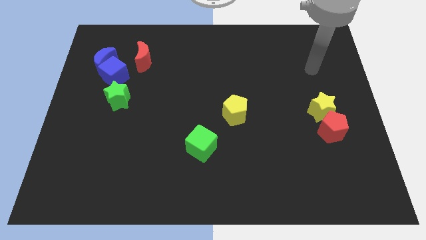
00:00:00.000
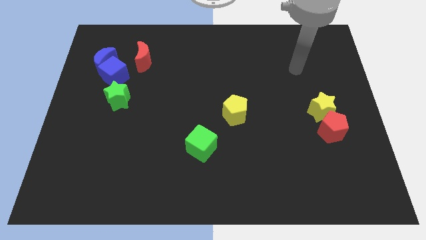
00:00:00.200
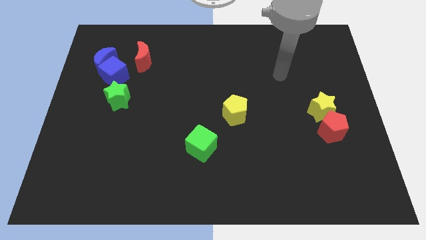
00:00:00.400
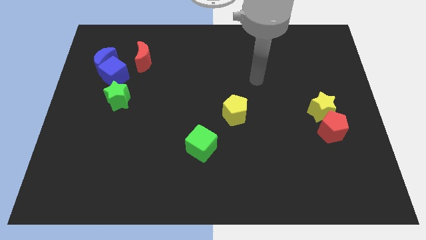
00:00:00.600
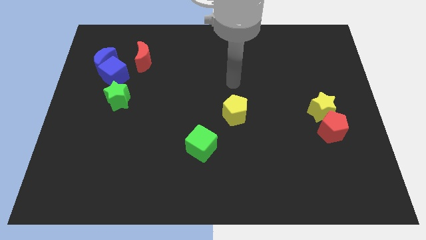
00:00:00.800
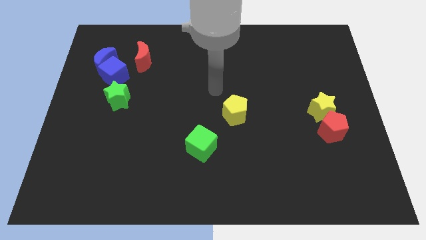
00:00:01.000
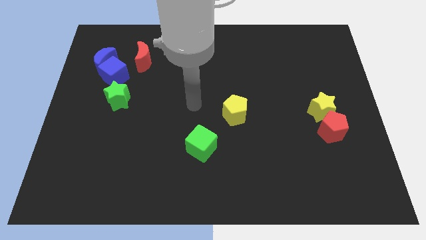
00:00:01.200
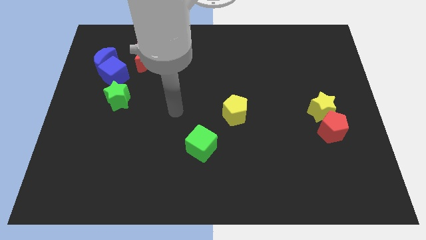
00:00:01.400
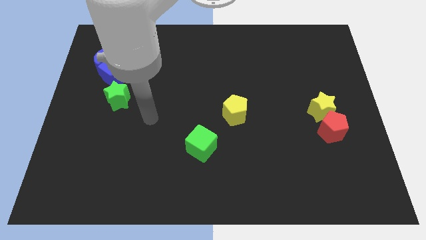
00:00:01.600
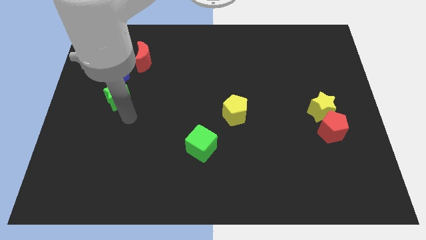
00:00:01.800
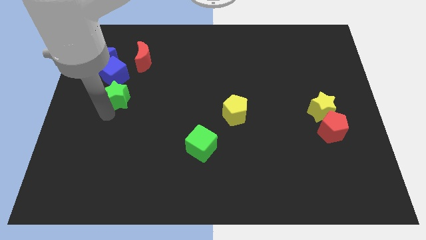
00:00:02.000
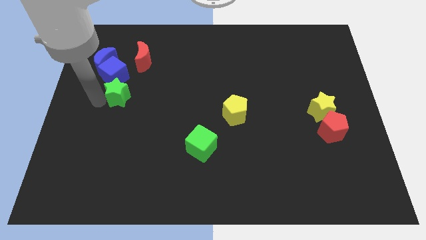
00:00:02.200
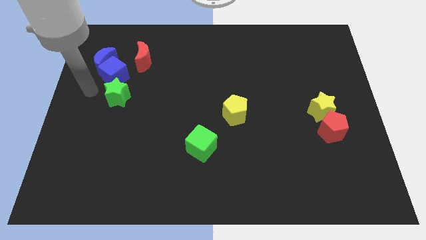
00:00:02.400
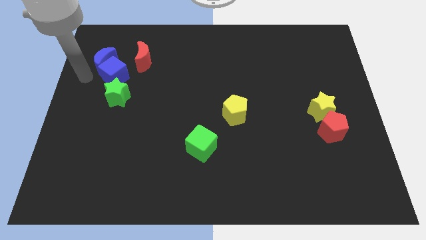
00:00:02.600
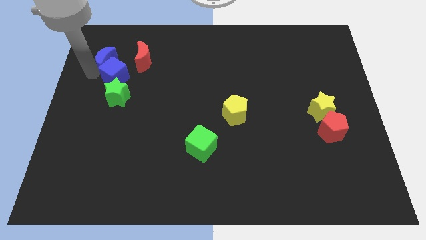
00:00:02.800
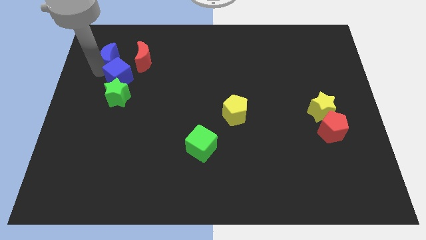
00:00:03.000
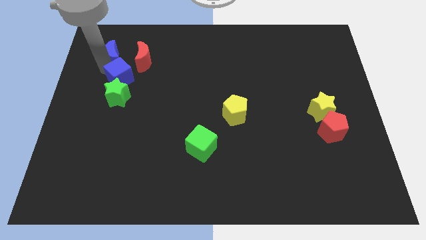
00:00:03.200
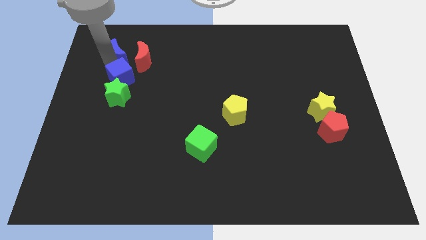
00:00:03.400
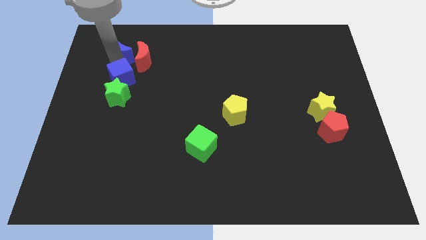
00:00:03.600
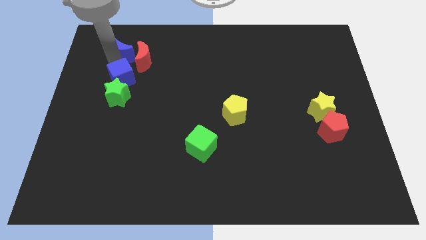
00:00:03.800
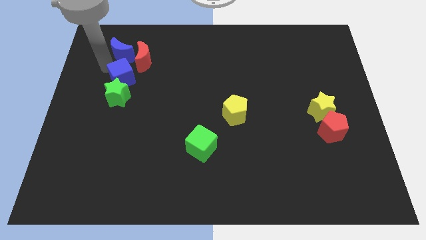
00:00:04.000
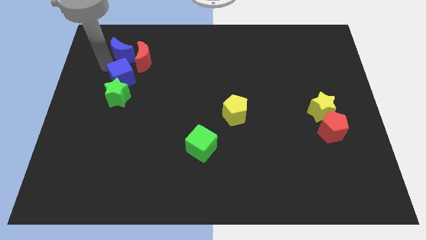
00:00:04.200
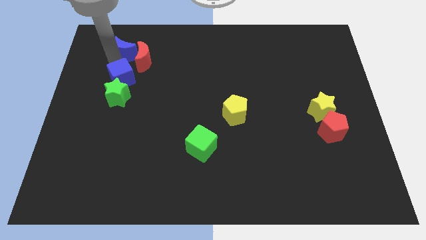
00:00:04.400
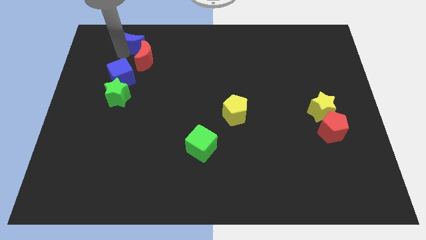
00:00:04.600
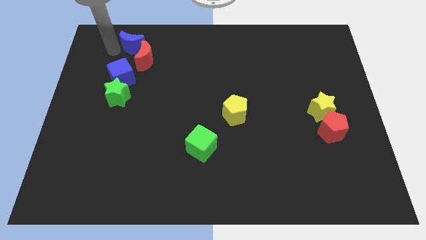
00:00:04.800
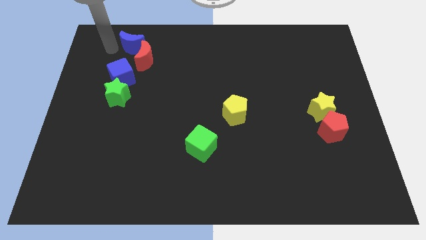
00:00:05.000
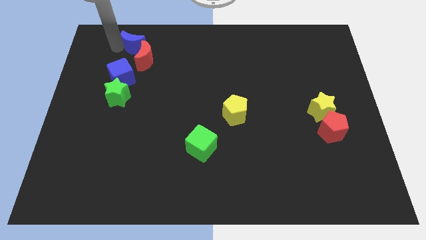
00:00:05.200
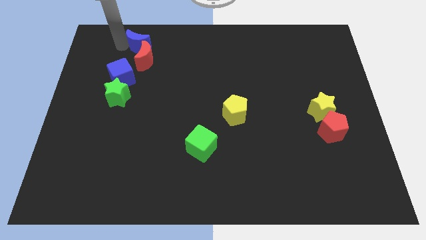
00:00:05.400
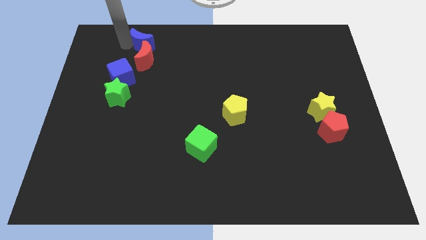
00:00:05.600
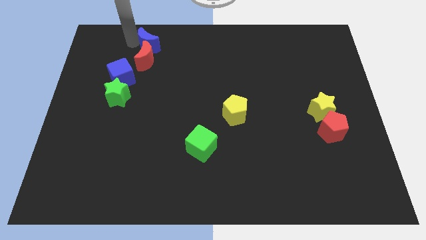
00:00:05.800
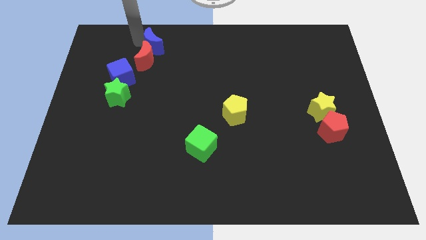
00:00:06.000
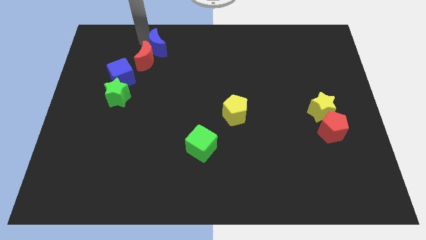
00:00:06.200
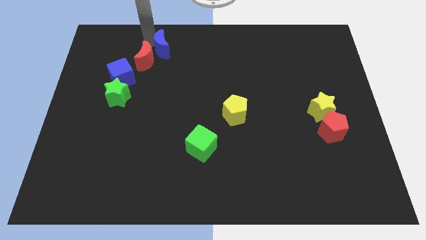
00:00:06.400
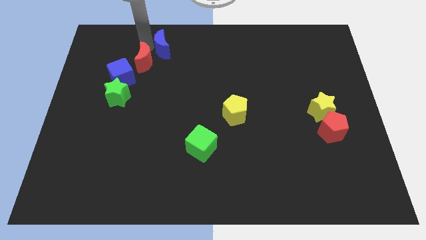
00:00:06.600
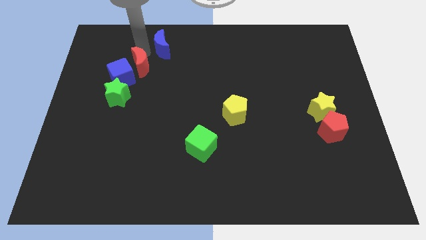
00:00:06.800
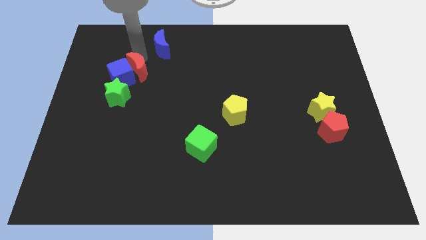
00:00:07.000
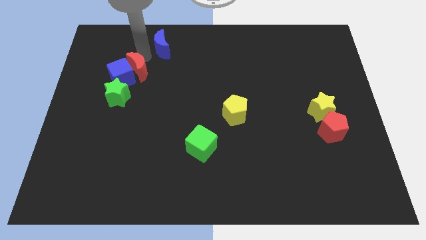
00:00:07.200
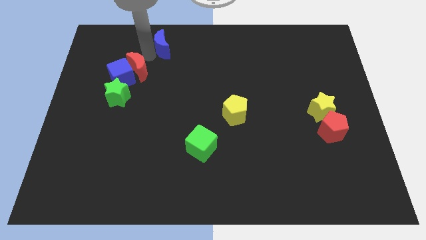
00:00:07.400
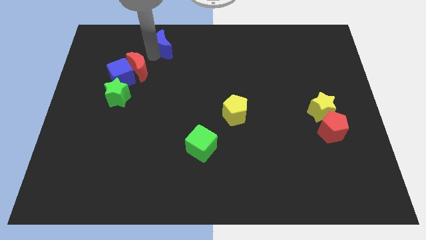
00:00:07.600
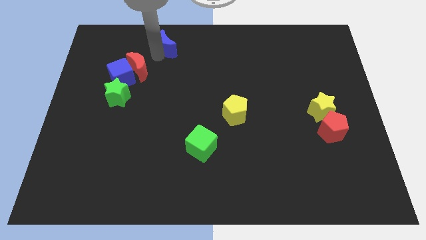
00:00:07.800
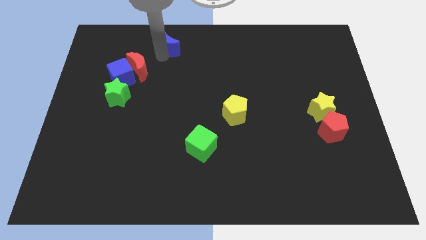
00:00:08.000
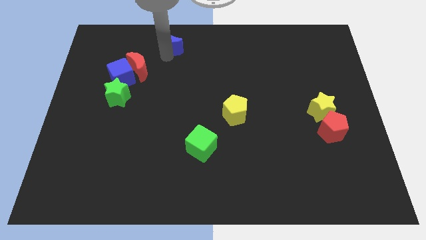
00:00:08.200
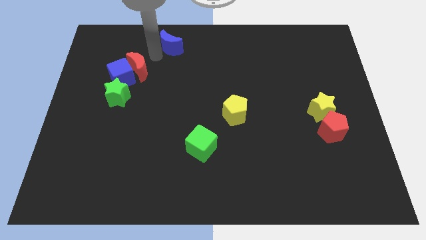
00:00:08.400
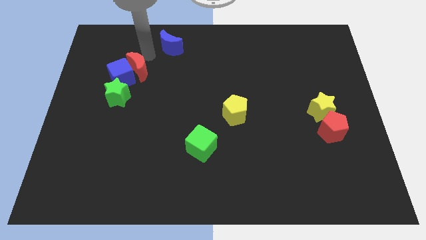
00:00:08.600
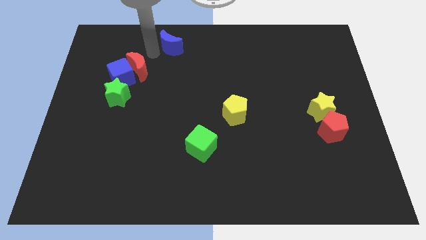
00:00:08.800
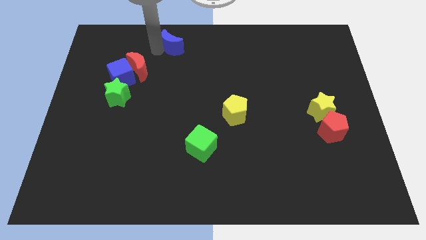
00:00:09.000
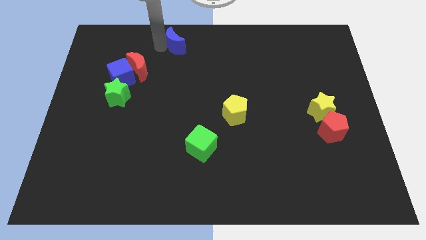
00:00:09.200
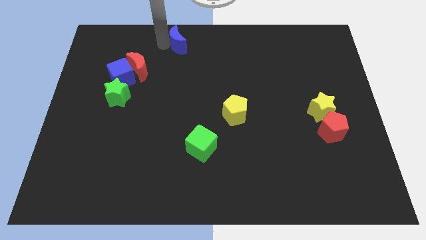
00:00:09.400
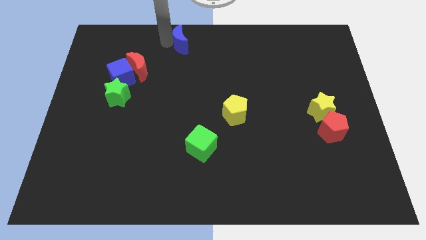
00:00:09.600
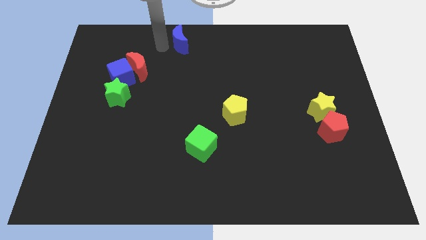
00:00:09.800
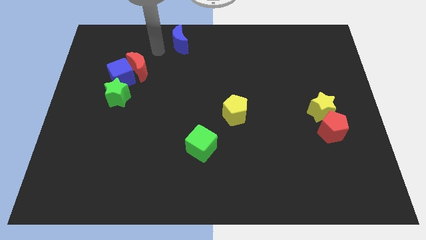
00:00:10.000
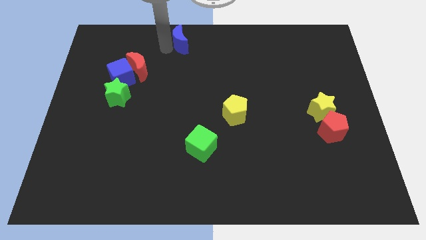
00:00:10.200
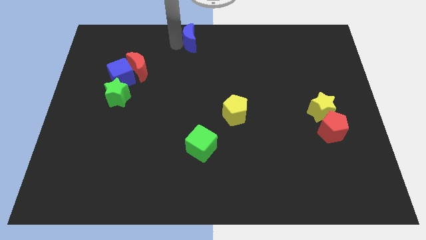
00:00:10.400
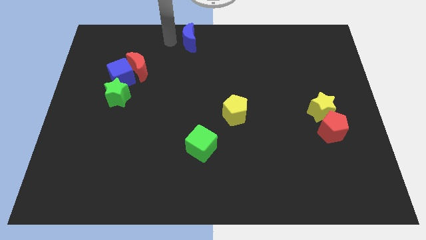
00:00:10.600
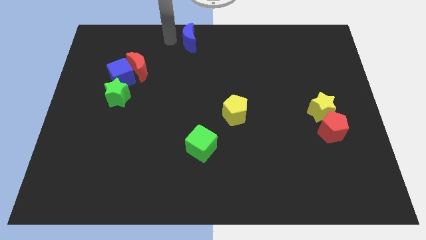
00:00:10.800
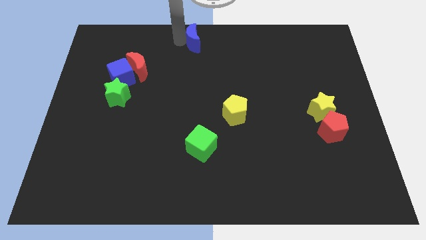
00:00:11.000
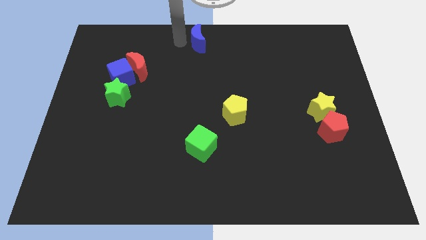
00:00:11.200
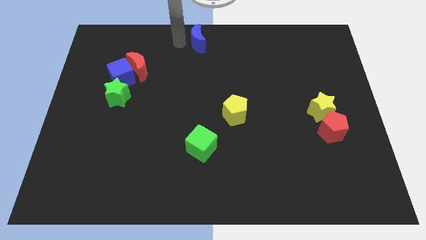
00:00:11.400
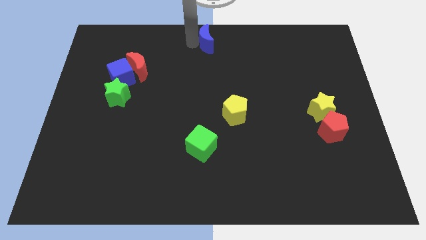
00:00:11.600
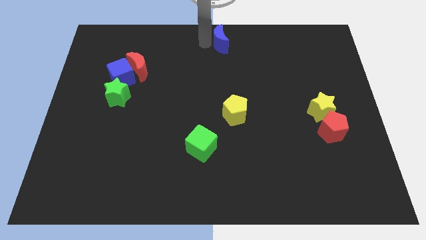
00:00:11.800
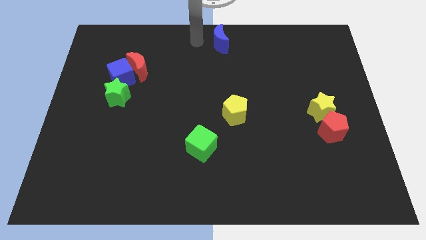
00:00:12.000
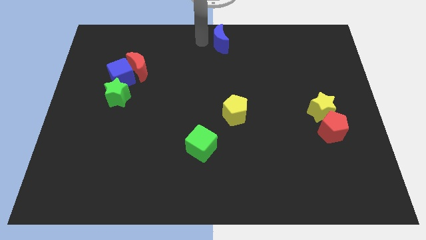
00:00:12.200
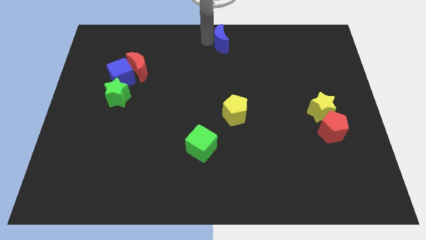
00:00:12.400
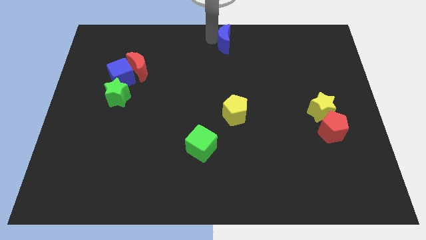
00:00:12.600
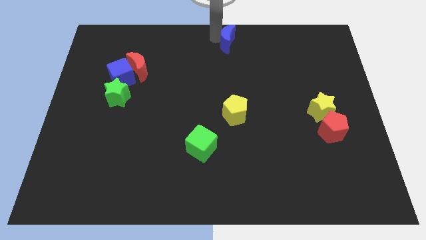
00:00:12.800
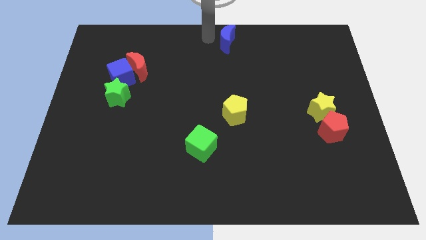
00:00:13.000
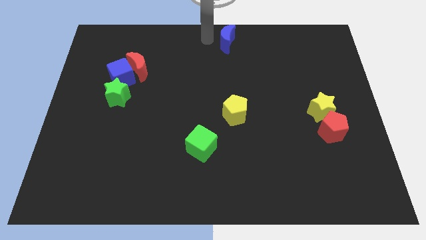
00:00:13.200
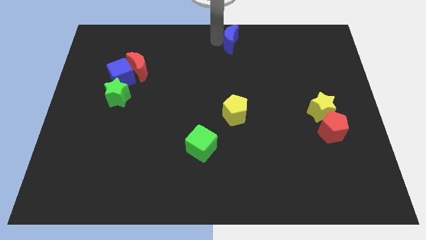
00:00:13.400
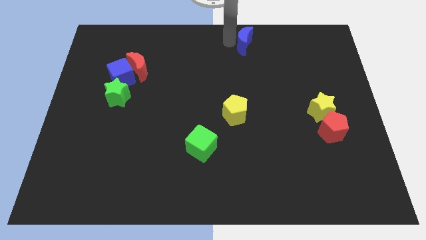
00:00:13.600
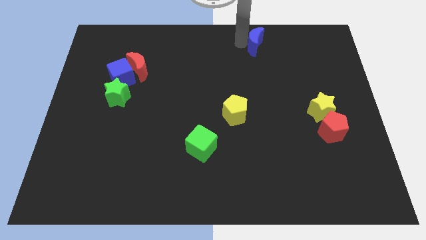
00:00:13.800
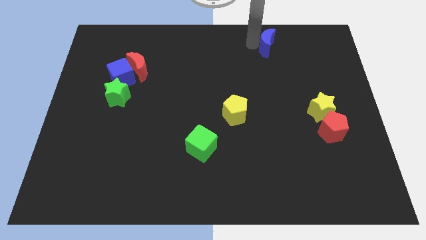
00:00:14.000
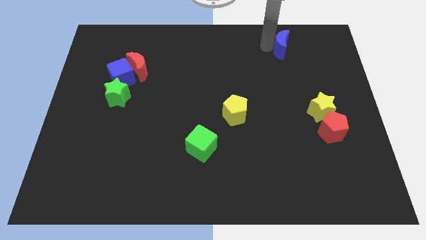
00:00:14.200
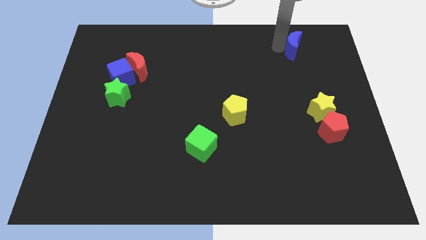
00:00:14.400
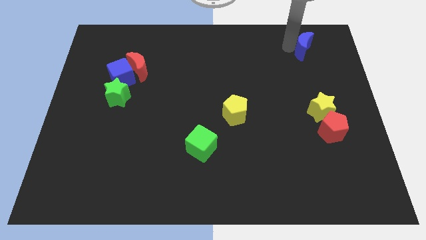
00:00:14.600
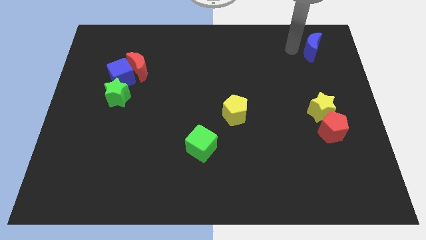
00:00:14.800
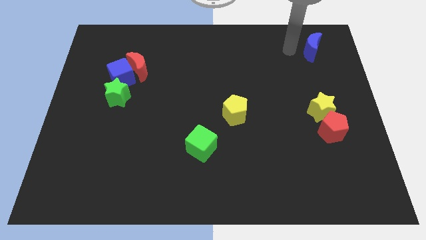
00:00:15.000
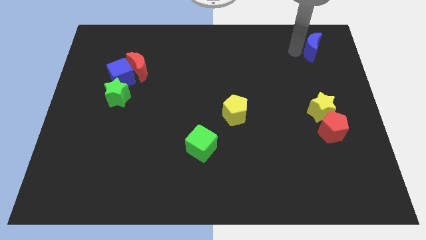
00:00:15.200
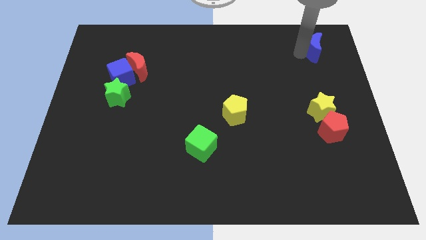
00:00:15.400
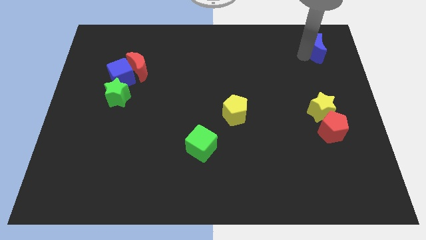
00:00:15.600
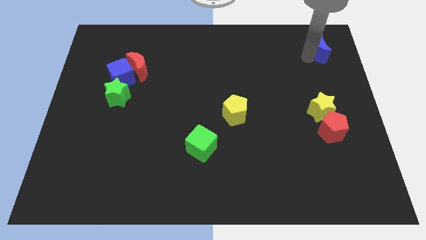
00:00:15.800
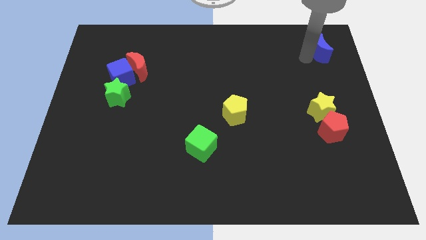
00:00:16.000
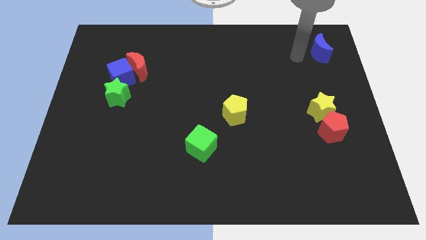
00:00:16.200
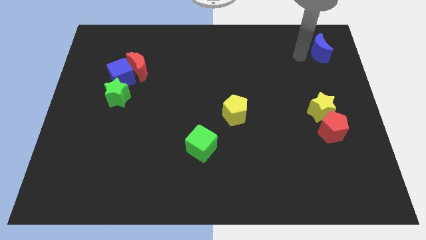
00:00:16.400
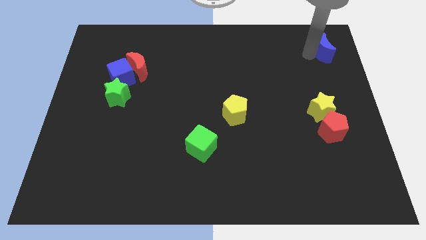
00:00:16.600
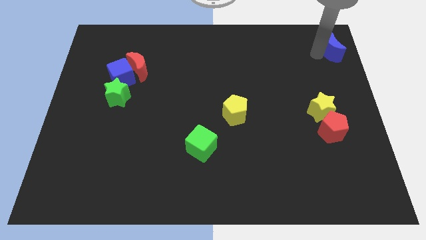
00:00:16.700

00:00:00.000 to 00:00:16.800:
put the blue moon to the top right
